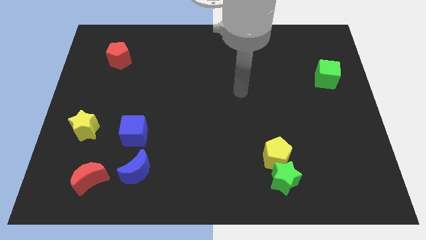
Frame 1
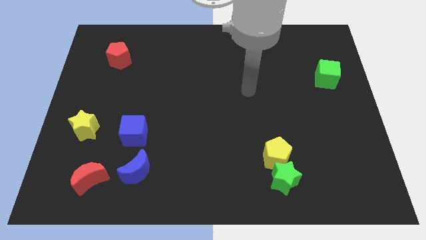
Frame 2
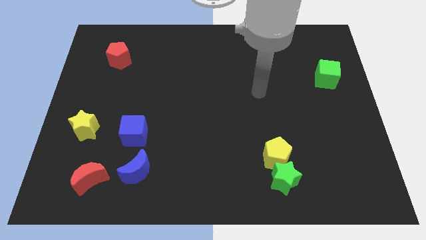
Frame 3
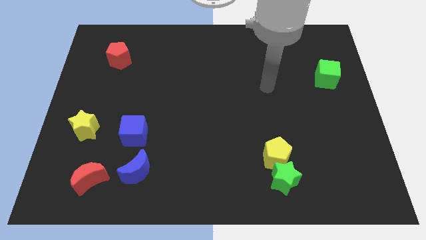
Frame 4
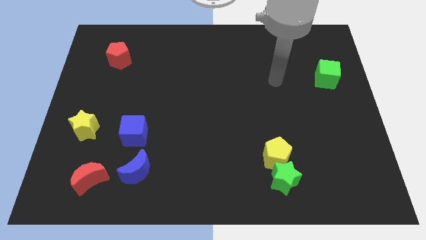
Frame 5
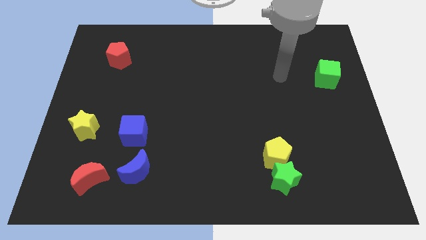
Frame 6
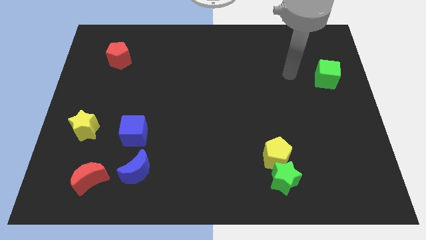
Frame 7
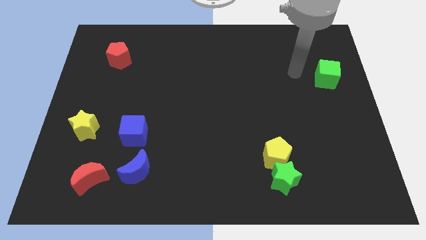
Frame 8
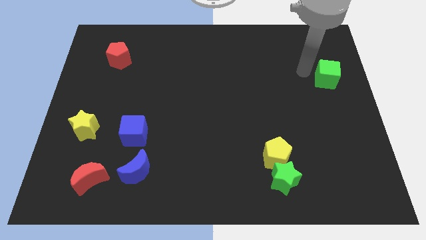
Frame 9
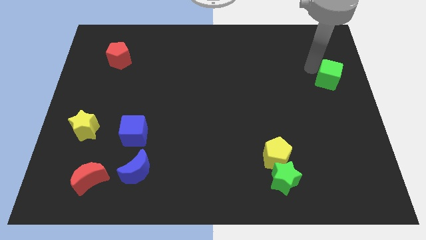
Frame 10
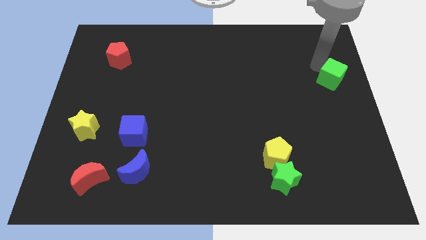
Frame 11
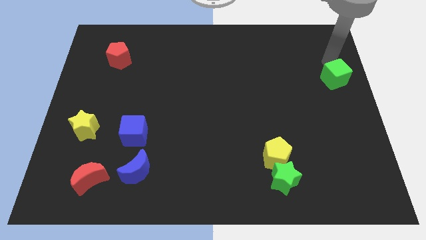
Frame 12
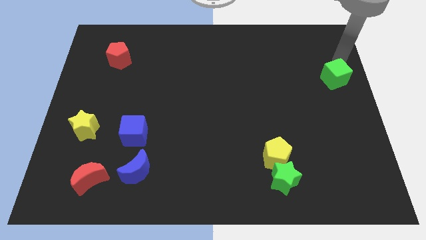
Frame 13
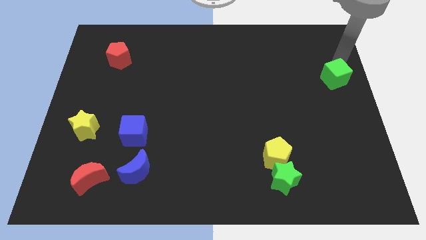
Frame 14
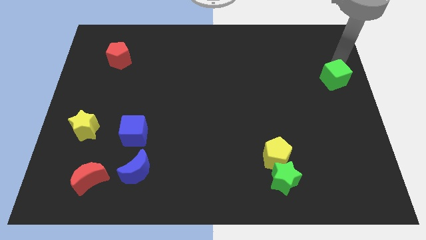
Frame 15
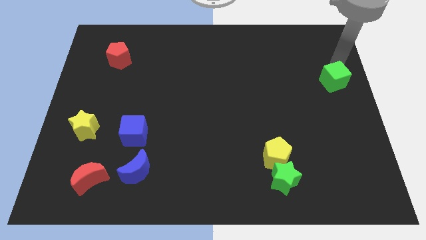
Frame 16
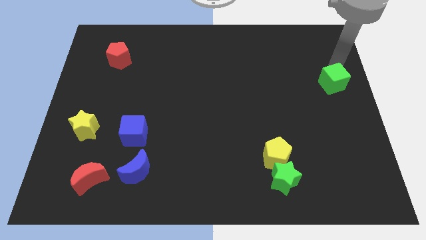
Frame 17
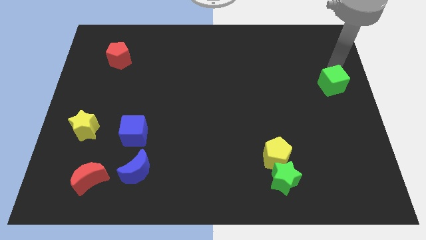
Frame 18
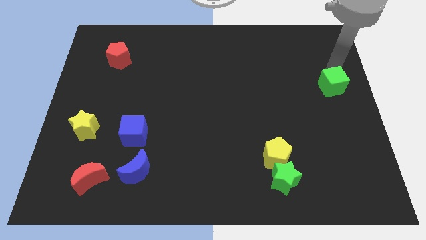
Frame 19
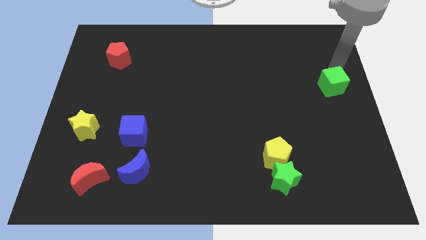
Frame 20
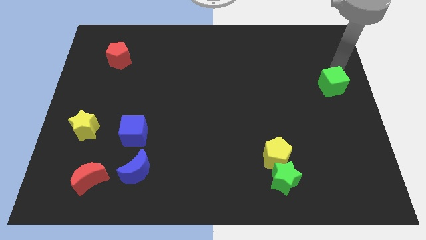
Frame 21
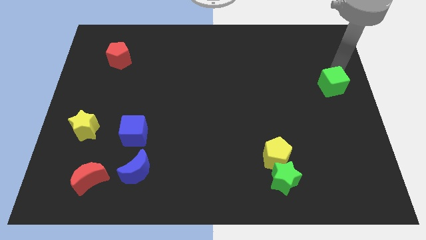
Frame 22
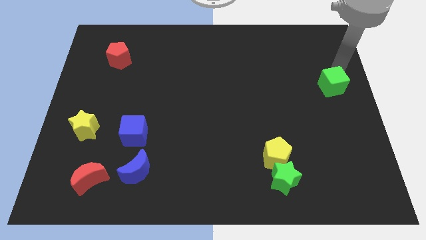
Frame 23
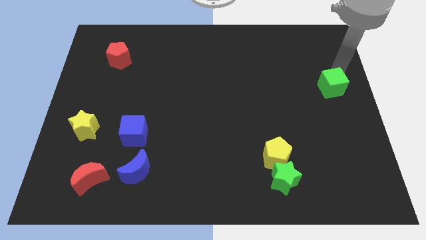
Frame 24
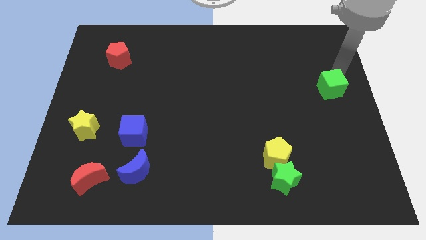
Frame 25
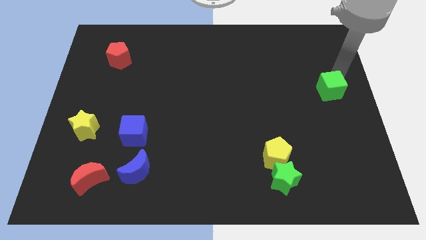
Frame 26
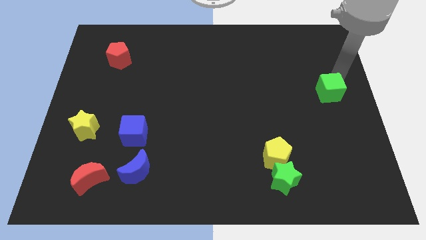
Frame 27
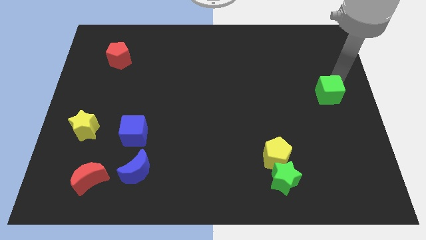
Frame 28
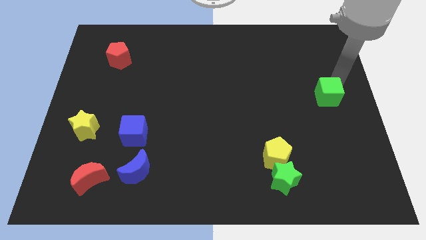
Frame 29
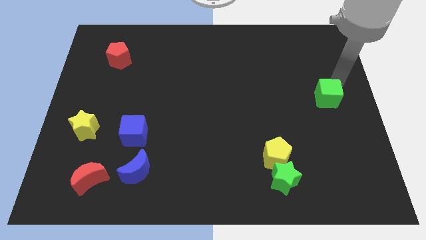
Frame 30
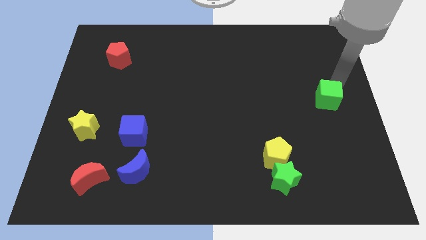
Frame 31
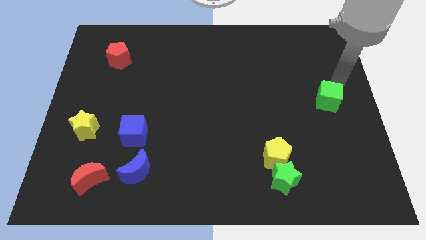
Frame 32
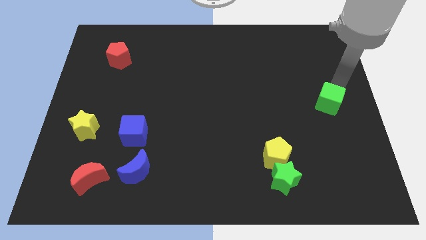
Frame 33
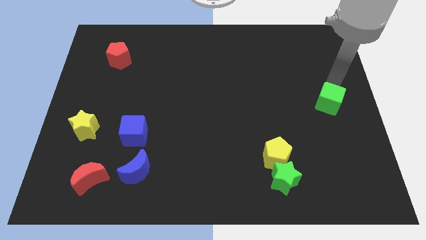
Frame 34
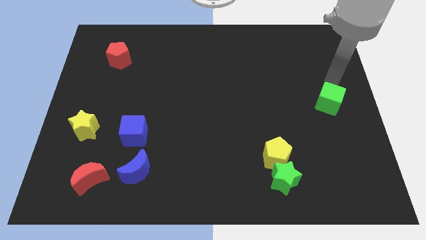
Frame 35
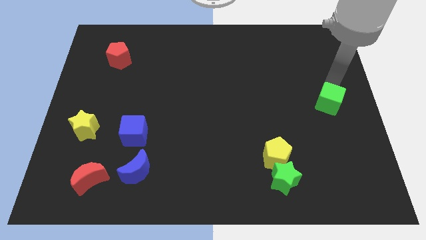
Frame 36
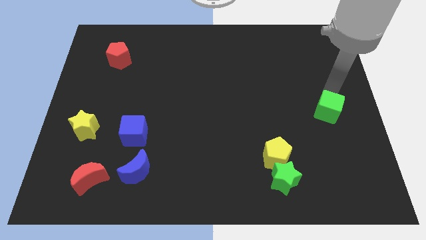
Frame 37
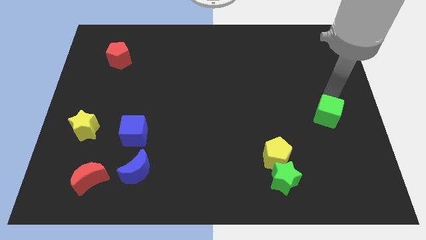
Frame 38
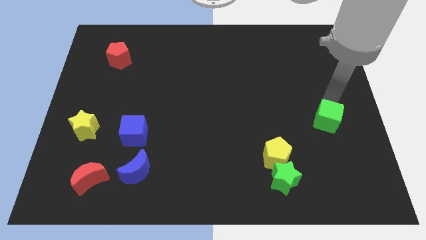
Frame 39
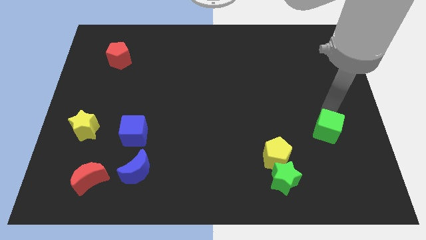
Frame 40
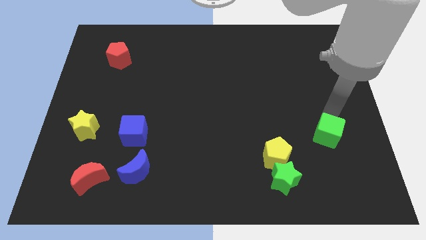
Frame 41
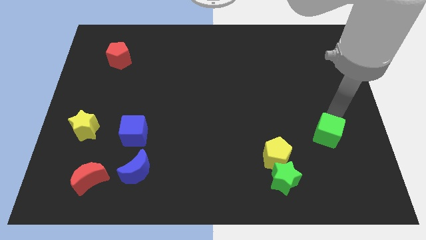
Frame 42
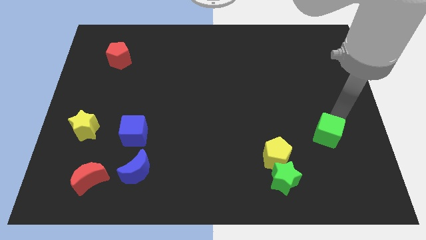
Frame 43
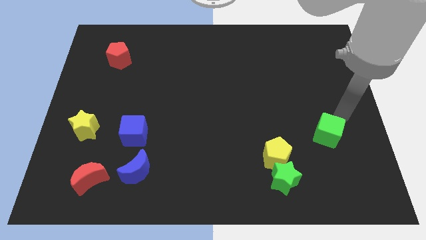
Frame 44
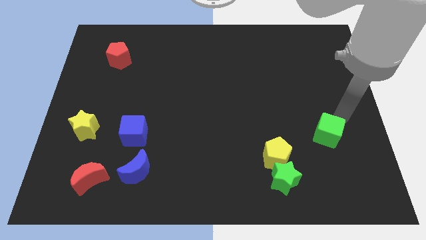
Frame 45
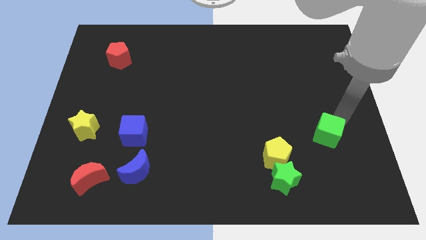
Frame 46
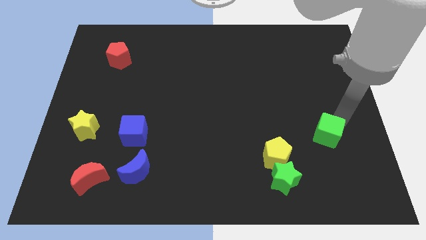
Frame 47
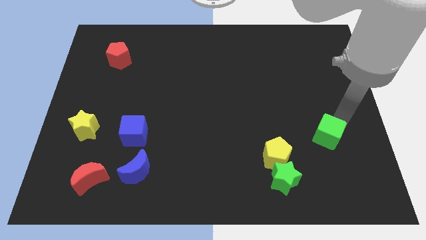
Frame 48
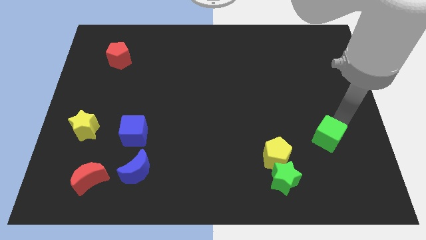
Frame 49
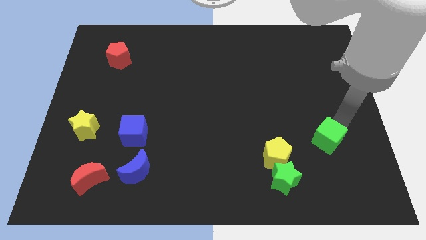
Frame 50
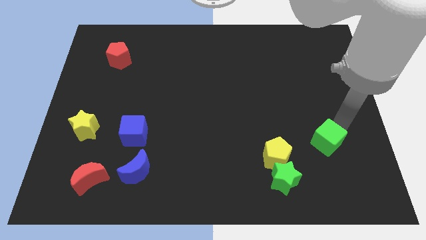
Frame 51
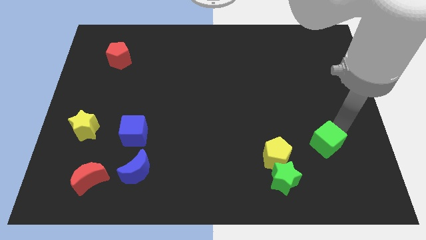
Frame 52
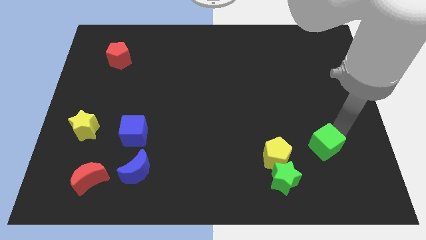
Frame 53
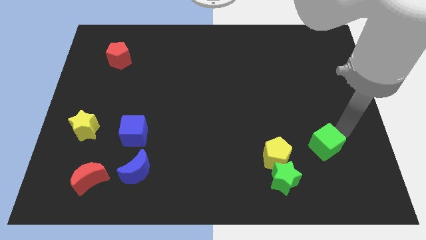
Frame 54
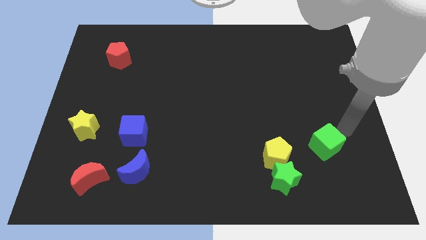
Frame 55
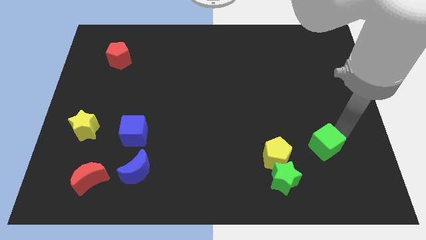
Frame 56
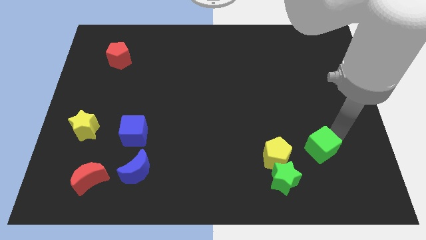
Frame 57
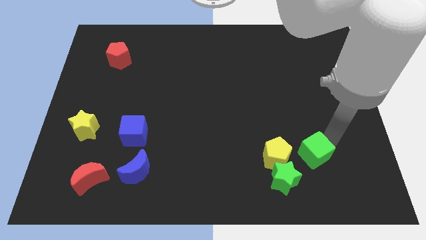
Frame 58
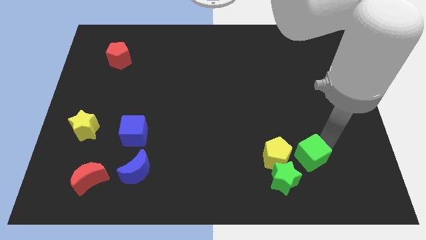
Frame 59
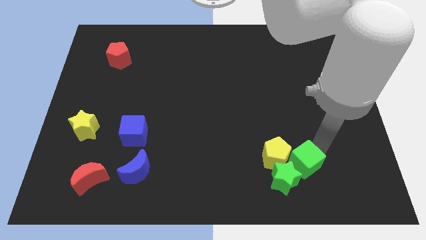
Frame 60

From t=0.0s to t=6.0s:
move the green cube towards the green star

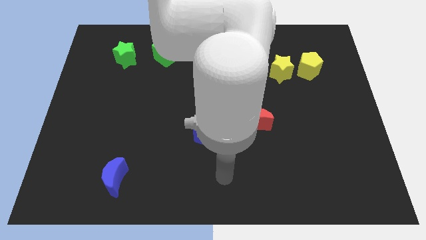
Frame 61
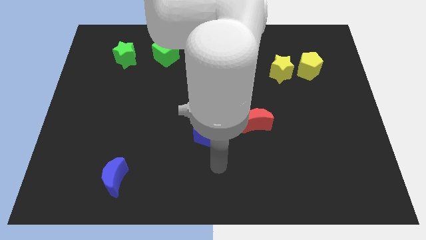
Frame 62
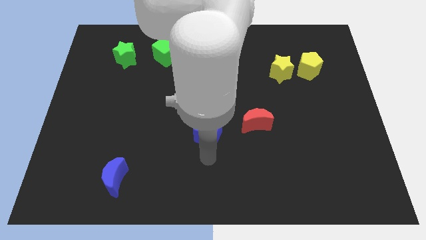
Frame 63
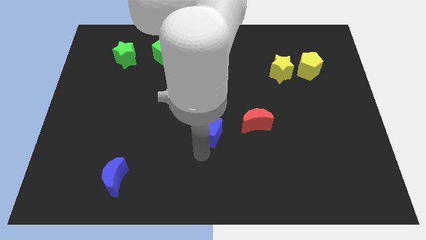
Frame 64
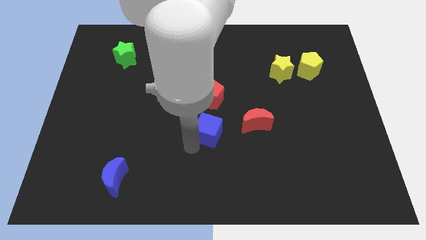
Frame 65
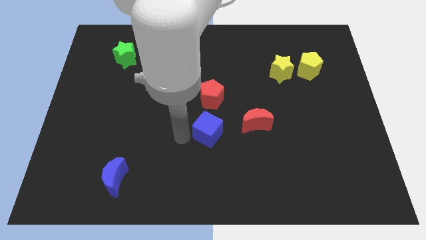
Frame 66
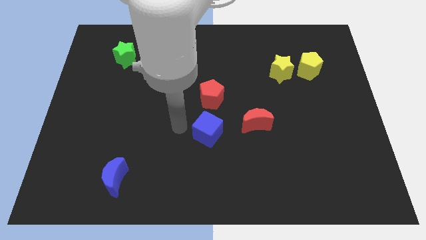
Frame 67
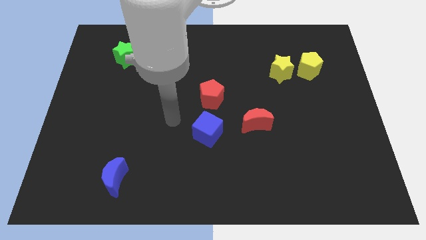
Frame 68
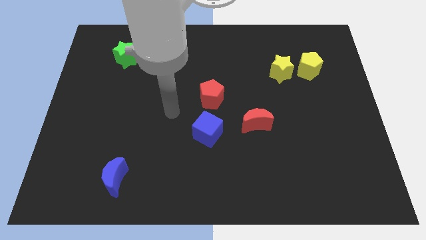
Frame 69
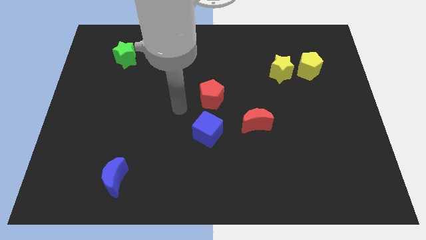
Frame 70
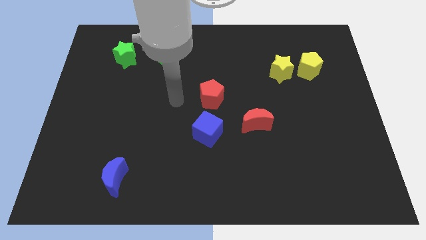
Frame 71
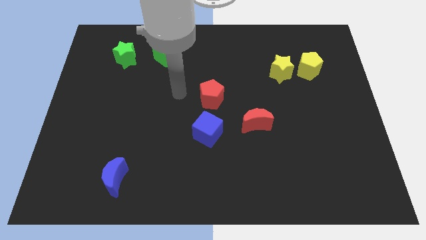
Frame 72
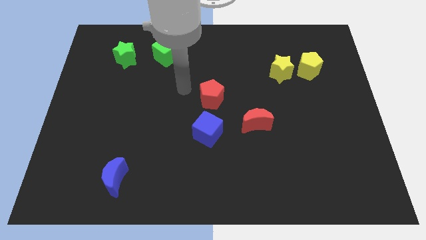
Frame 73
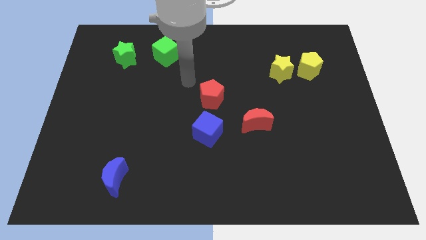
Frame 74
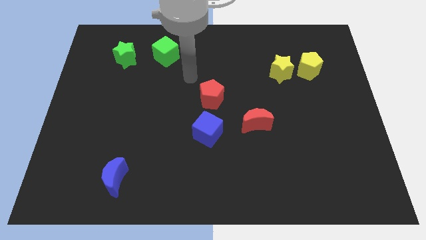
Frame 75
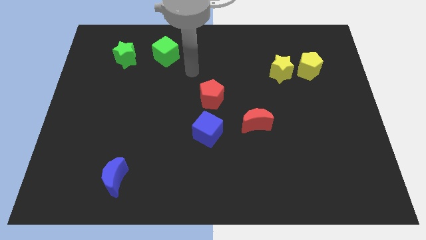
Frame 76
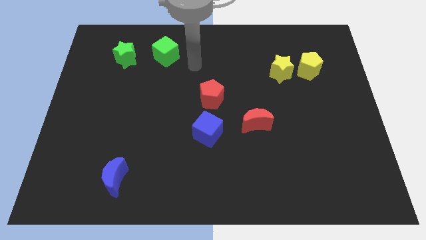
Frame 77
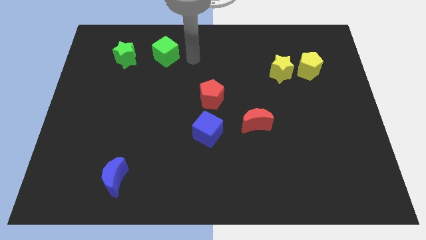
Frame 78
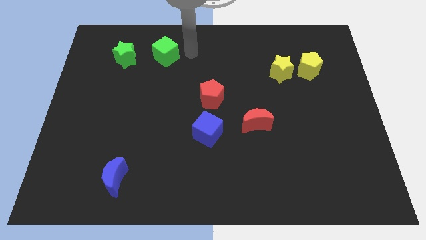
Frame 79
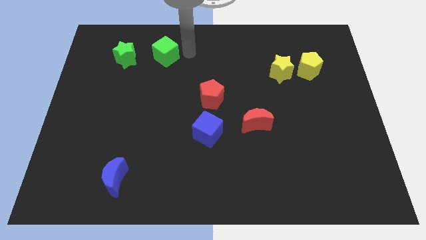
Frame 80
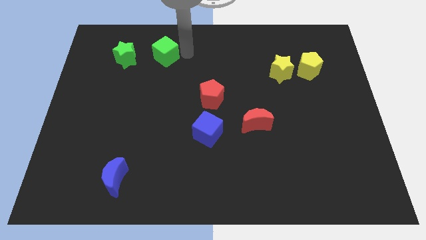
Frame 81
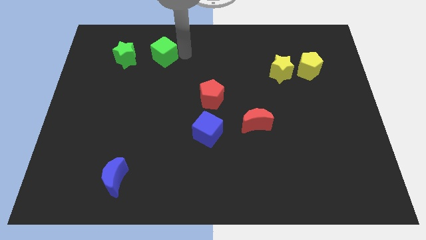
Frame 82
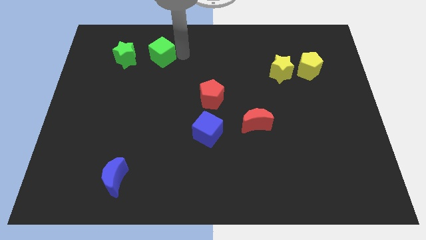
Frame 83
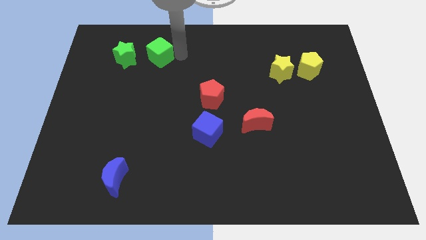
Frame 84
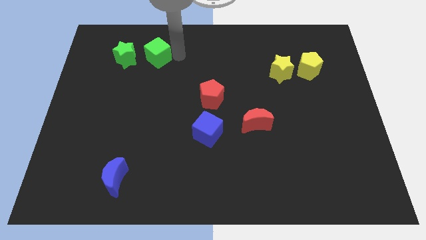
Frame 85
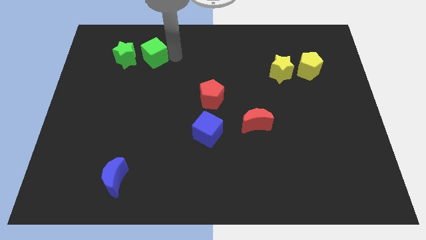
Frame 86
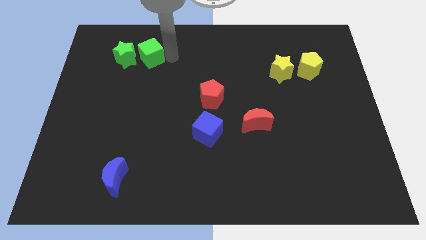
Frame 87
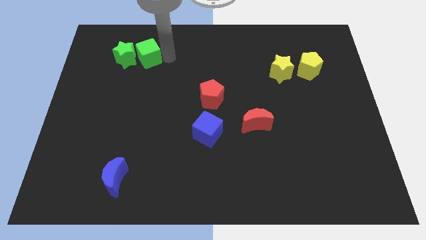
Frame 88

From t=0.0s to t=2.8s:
move the green cube close to the green star
